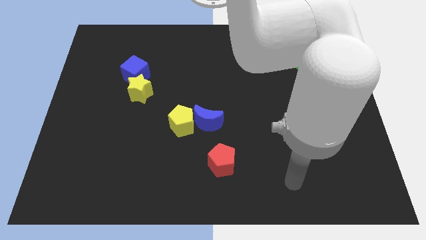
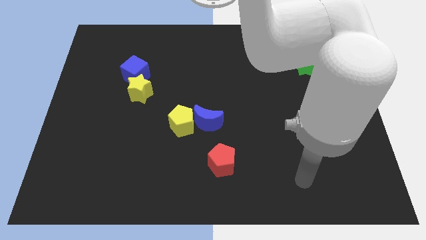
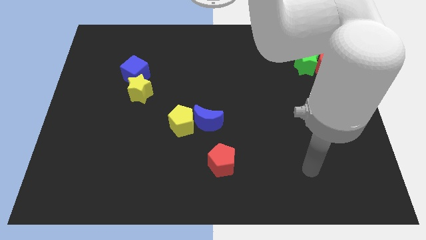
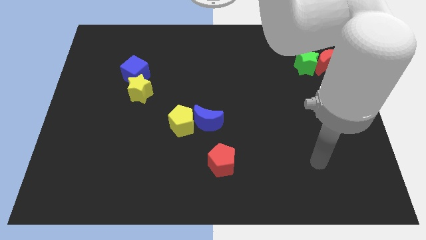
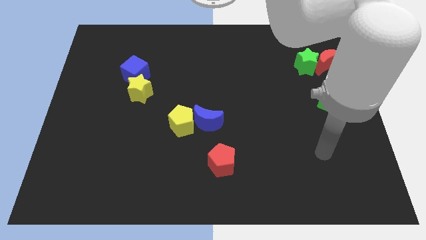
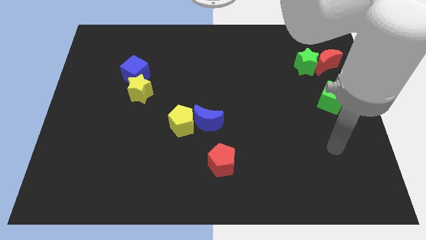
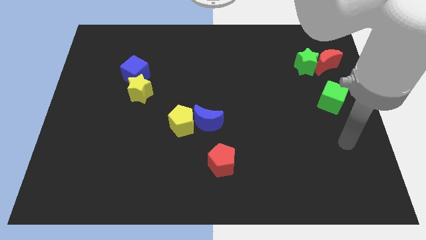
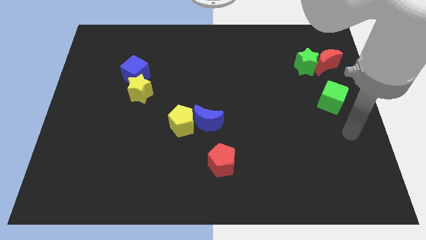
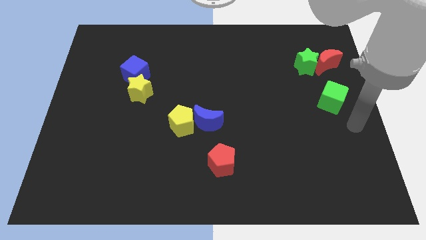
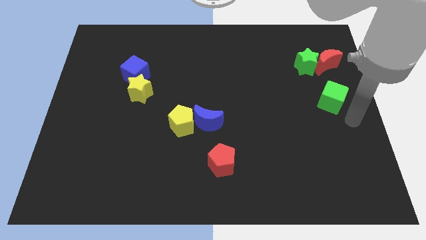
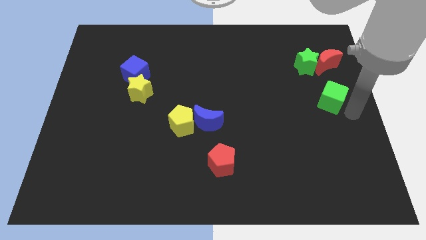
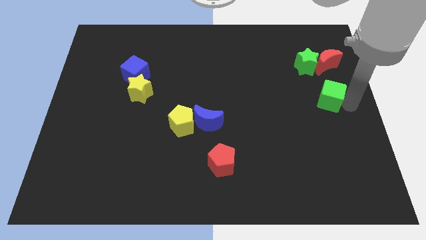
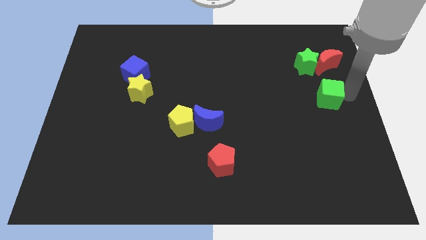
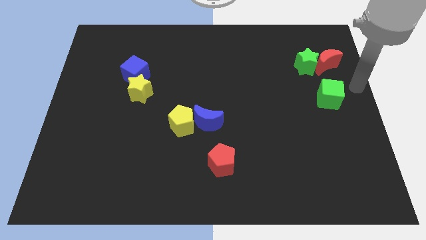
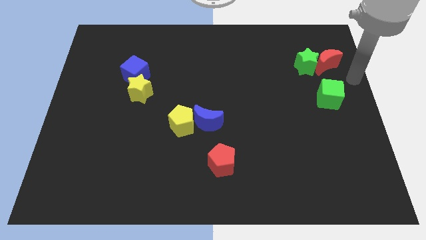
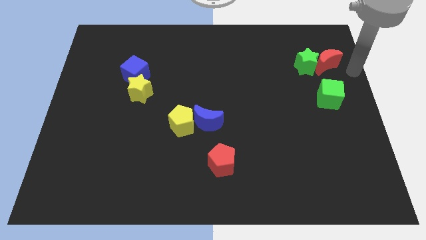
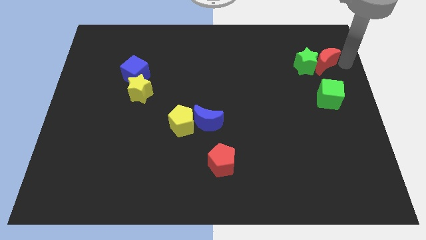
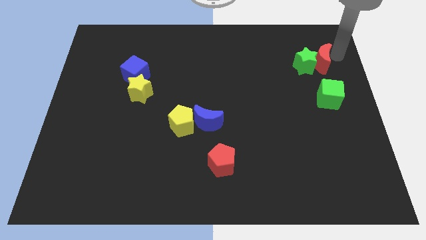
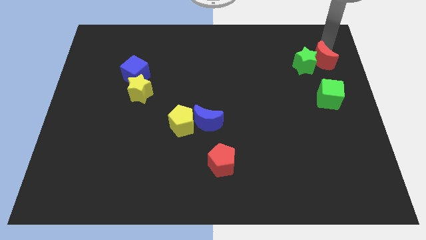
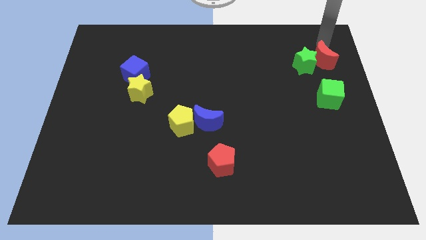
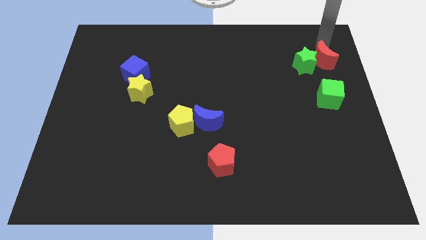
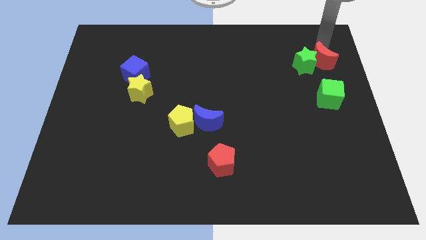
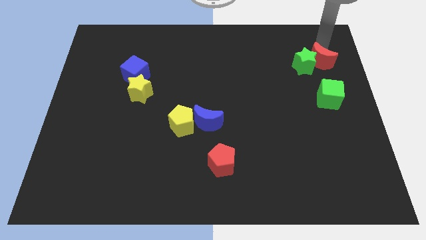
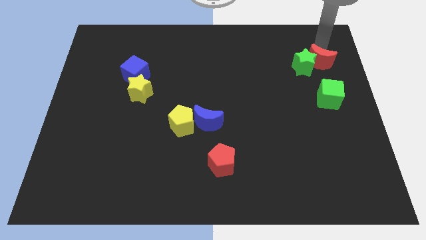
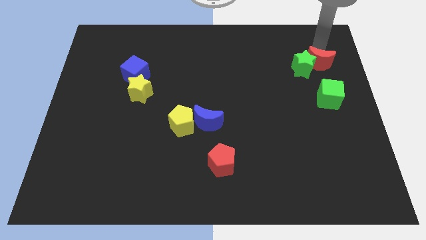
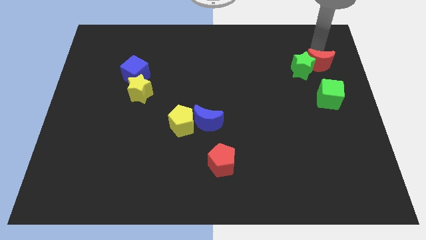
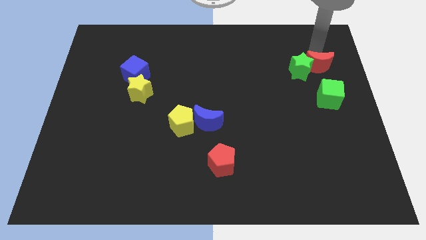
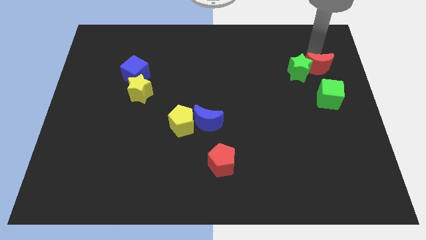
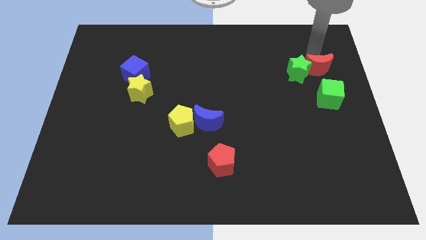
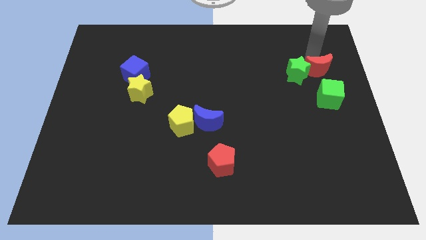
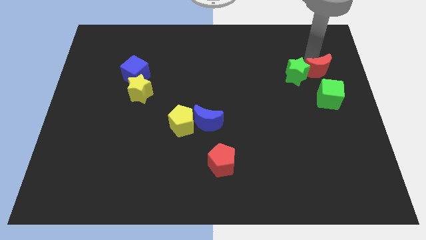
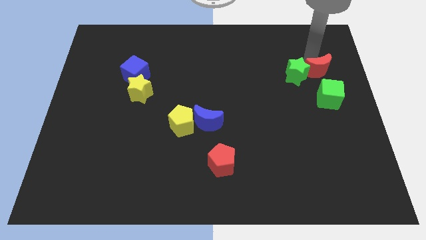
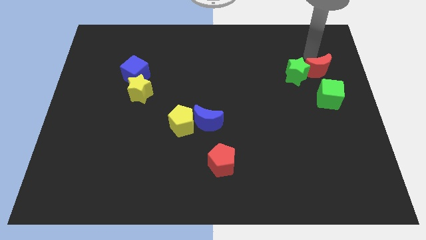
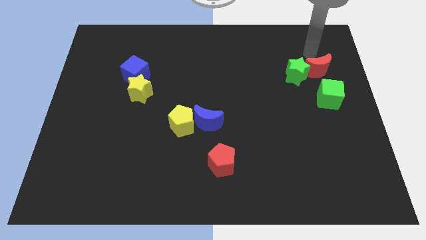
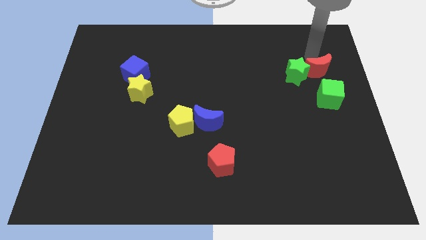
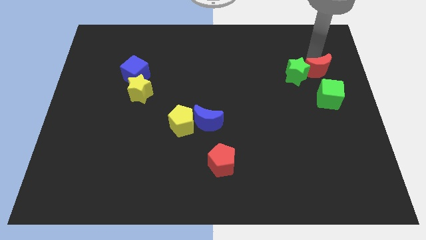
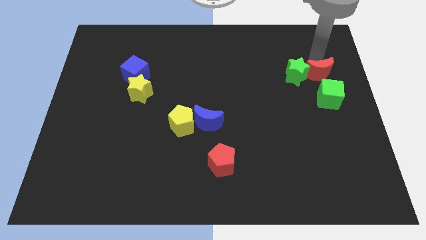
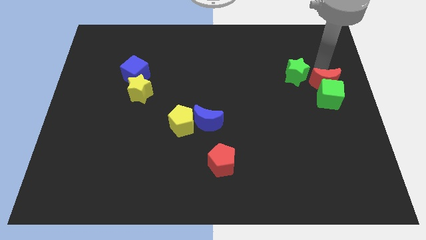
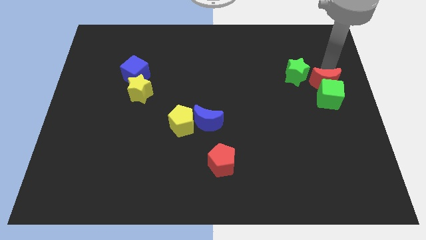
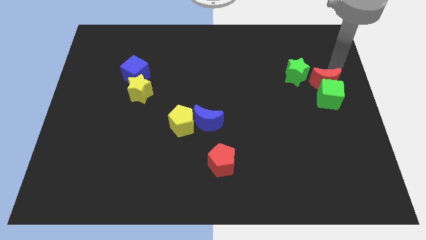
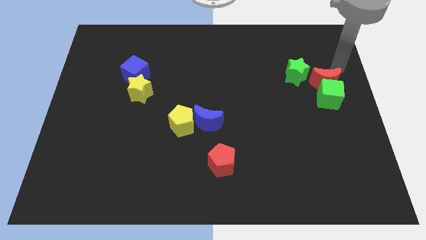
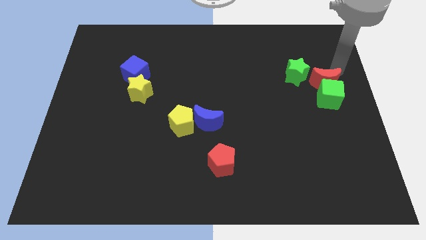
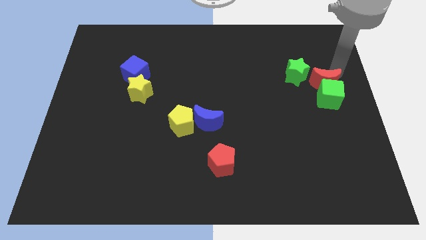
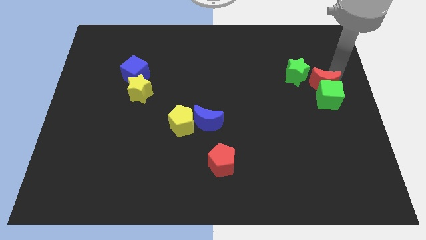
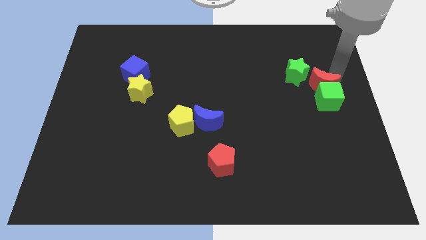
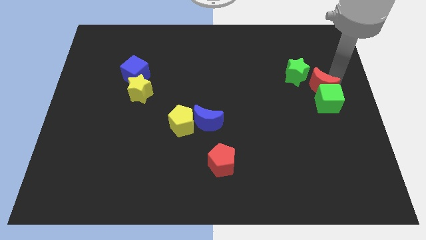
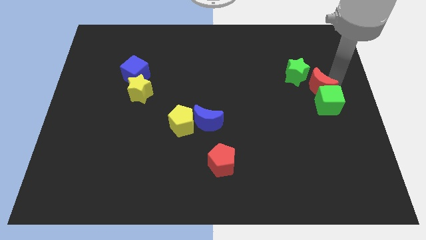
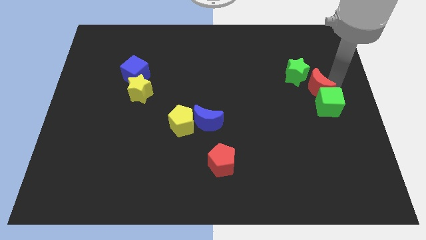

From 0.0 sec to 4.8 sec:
push the red moon below the green star

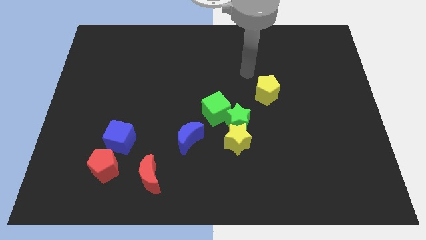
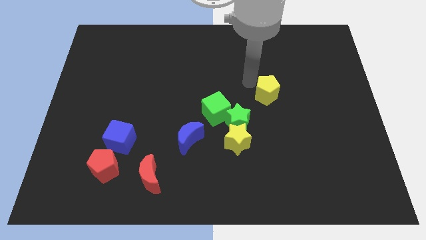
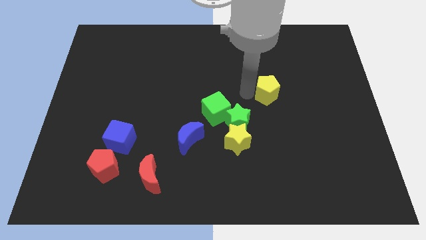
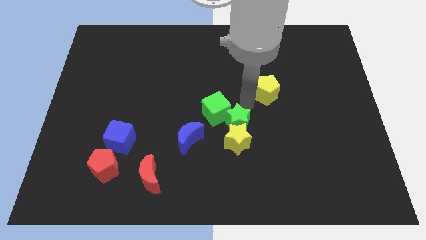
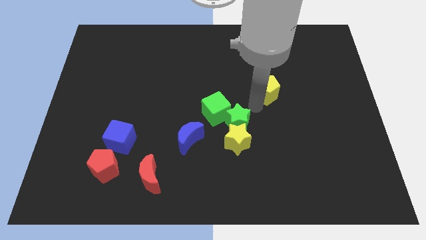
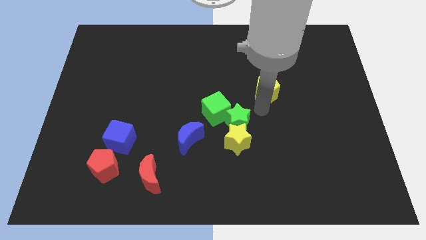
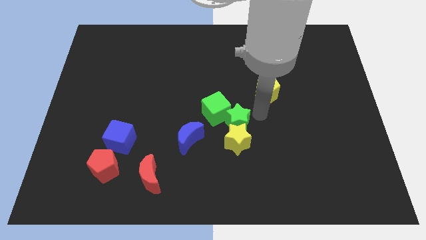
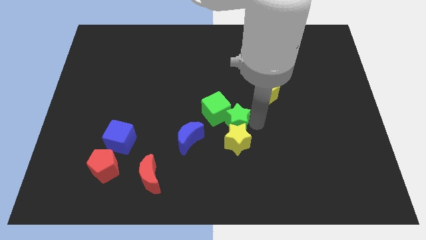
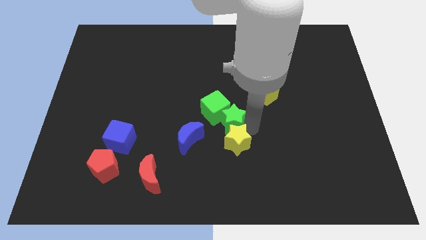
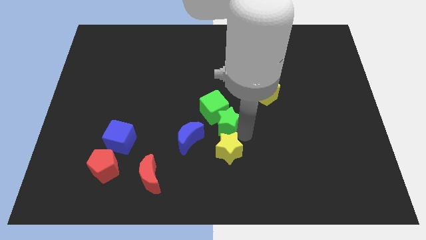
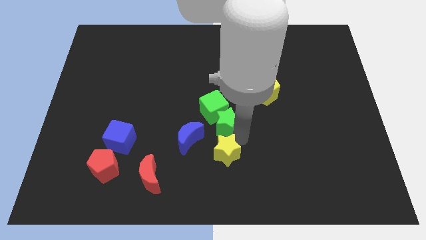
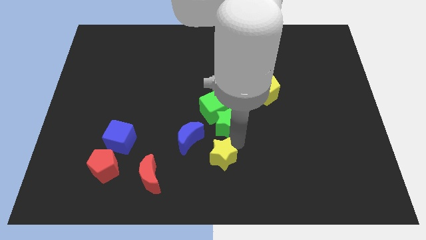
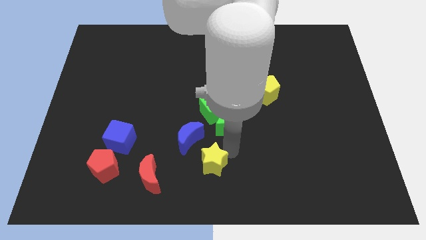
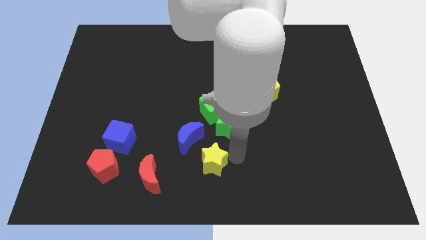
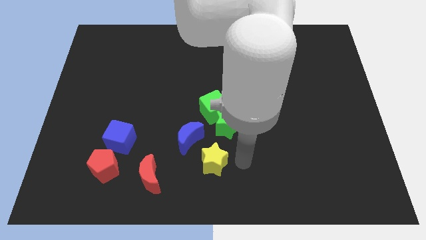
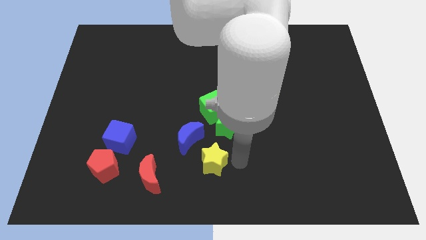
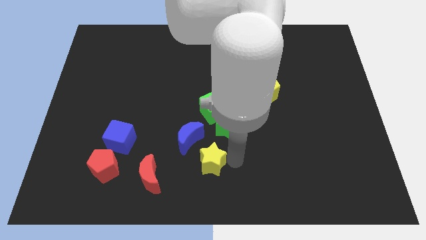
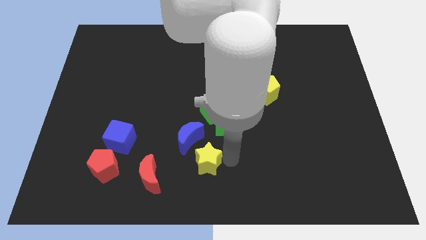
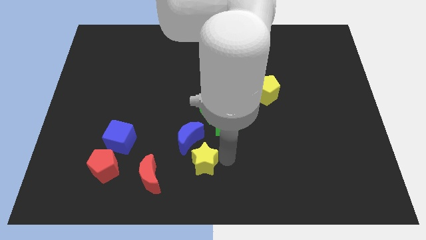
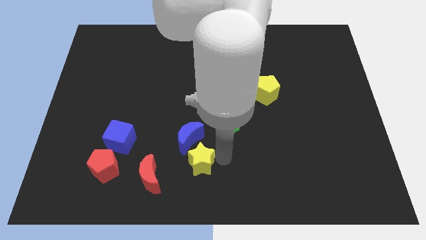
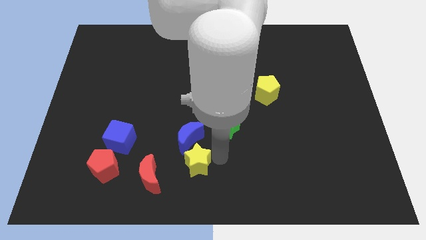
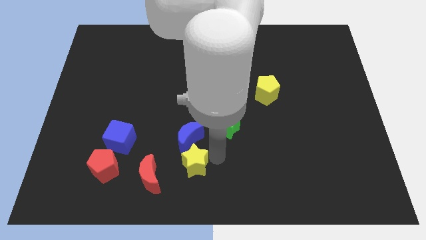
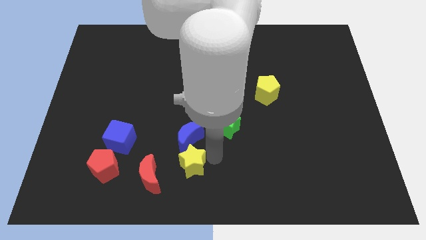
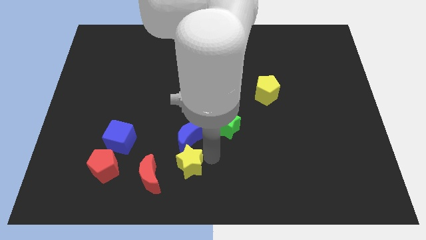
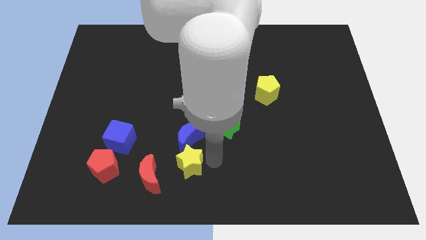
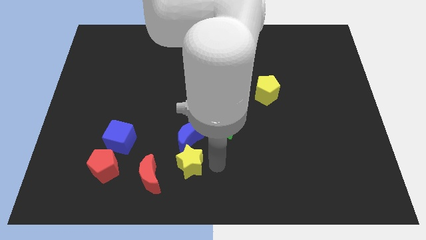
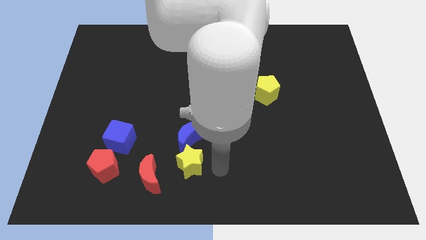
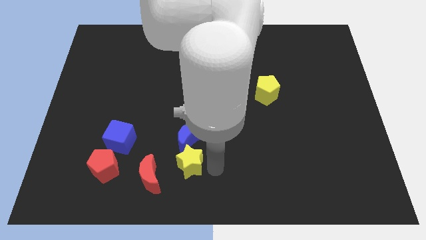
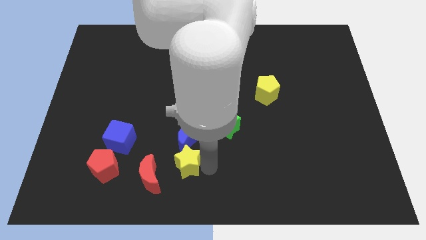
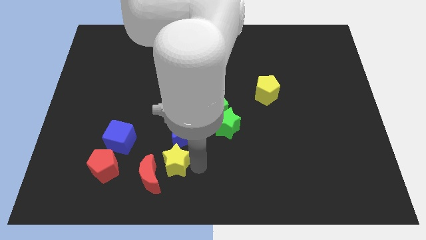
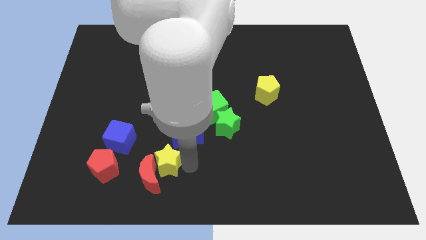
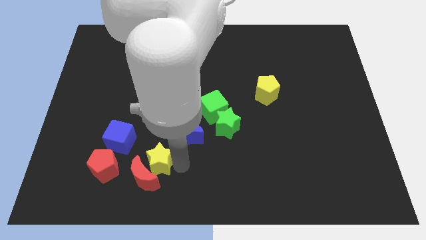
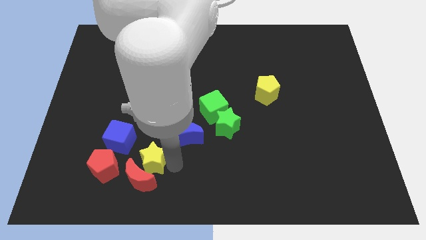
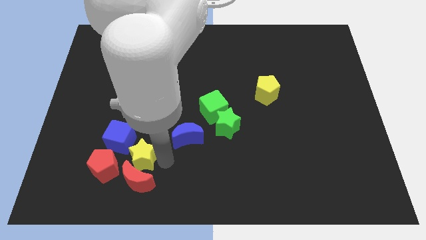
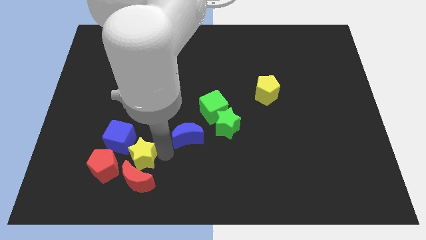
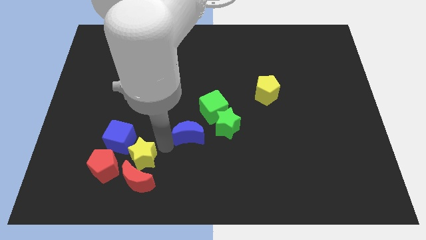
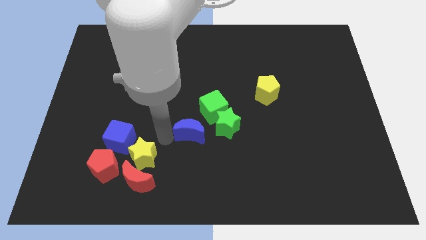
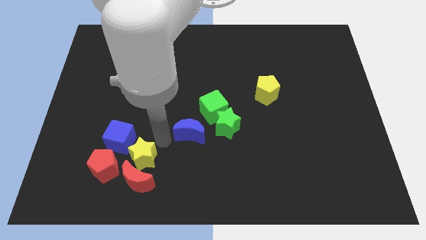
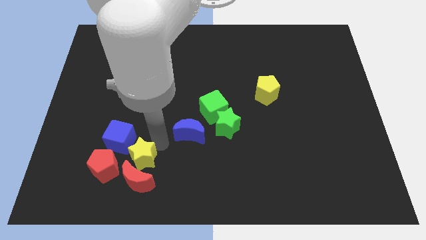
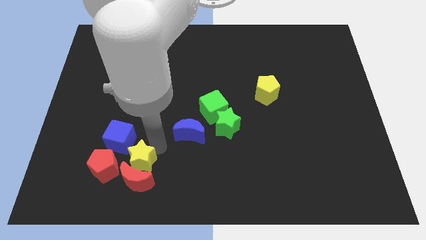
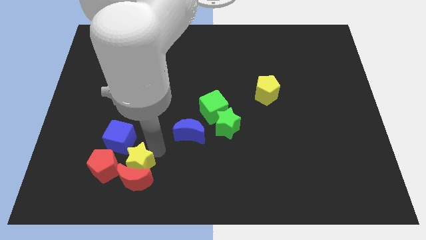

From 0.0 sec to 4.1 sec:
move the yellow star to the bottom of the blue cube
